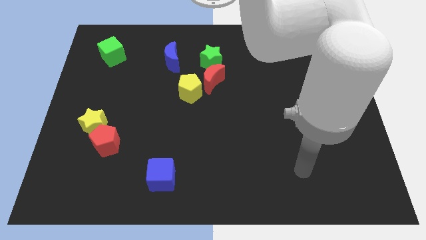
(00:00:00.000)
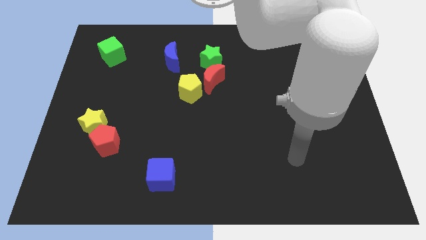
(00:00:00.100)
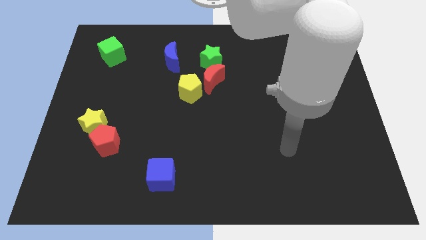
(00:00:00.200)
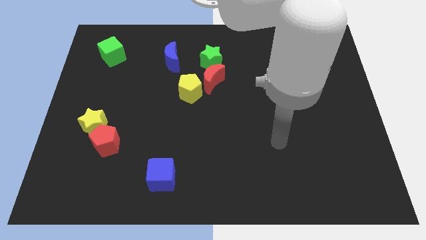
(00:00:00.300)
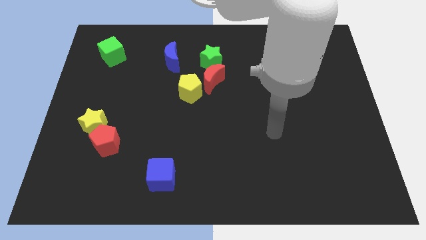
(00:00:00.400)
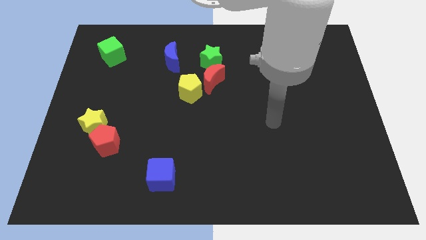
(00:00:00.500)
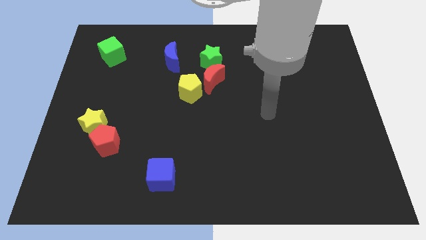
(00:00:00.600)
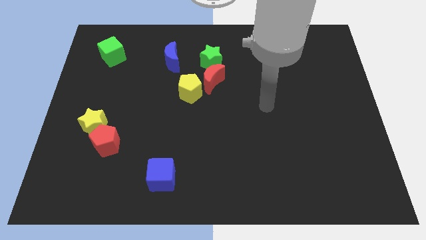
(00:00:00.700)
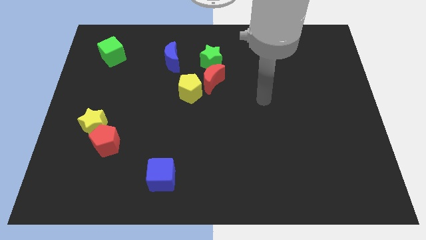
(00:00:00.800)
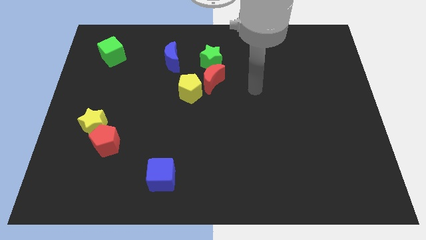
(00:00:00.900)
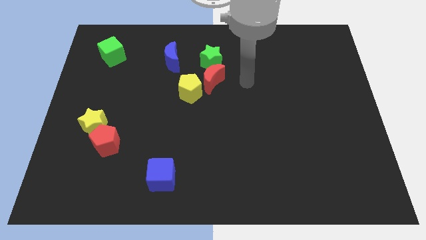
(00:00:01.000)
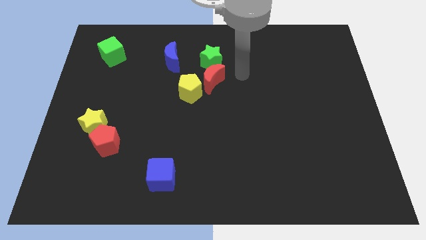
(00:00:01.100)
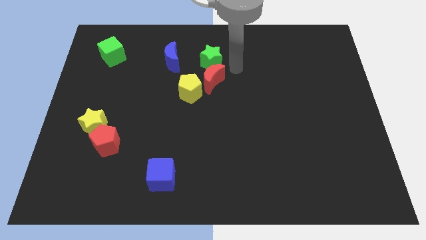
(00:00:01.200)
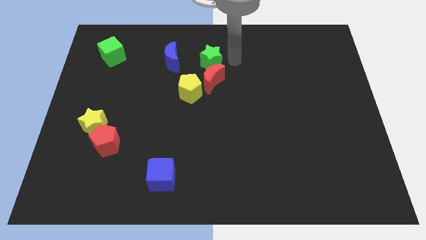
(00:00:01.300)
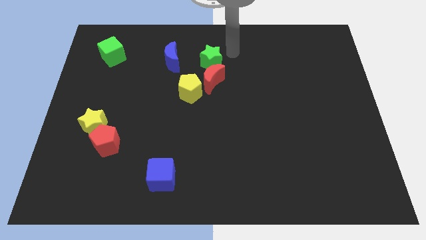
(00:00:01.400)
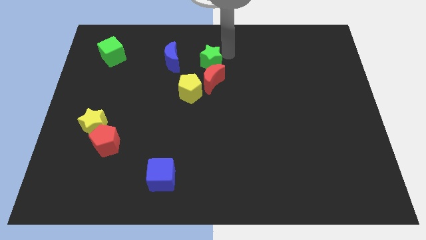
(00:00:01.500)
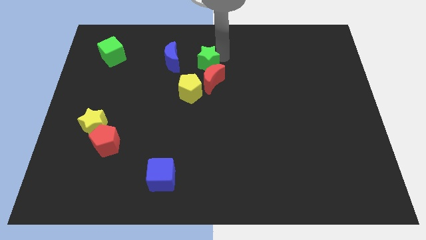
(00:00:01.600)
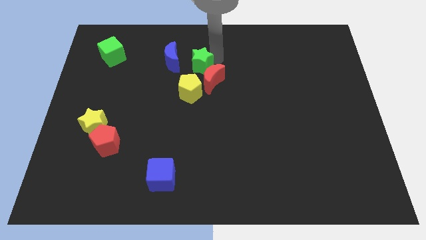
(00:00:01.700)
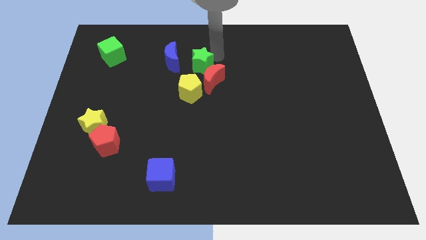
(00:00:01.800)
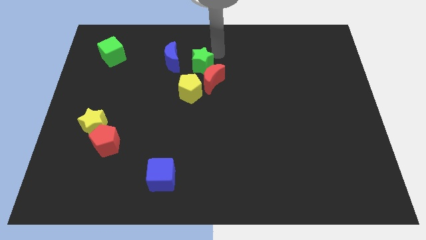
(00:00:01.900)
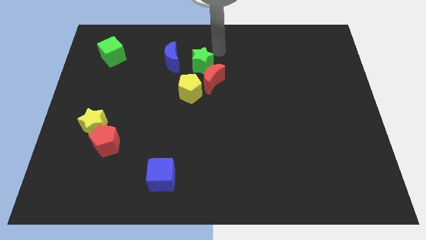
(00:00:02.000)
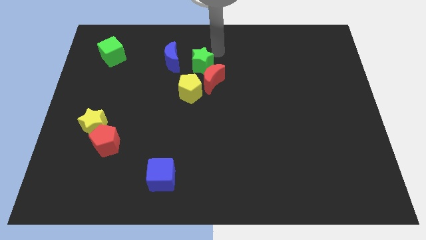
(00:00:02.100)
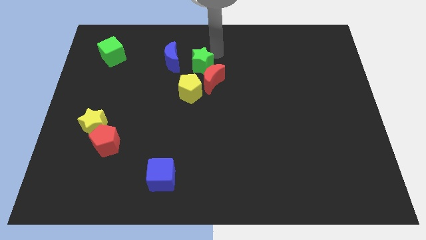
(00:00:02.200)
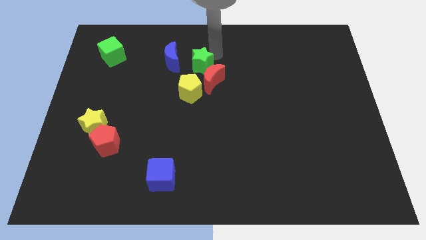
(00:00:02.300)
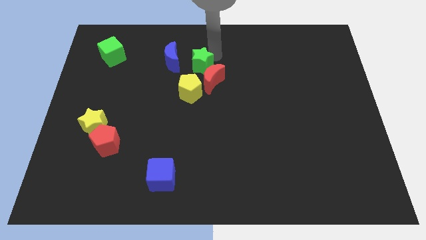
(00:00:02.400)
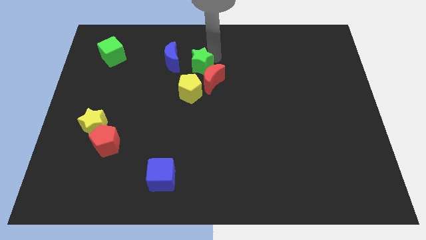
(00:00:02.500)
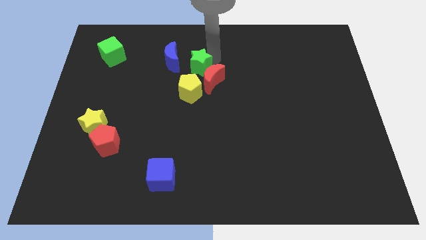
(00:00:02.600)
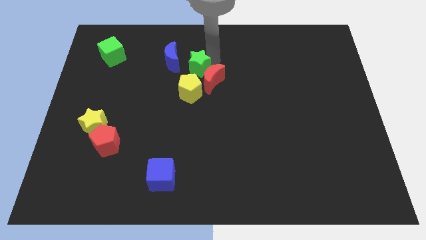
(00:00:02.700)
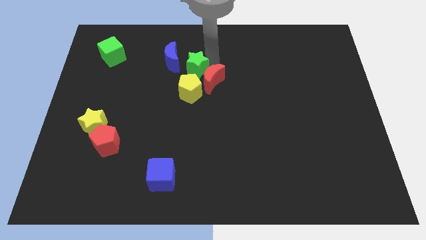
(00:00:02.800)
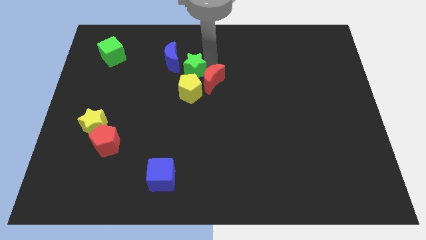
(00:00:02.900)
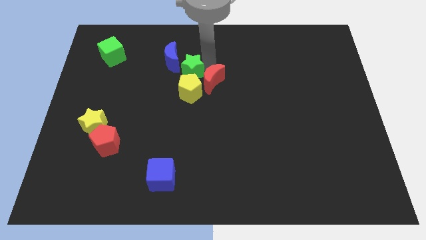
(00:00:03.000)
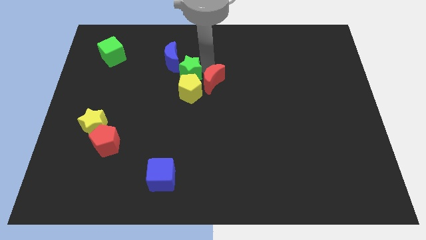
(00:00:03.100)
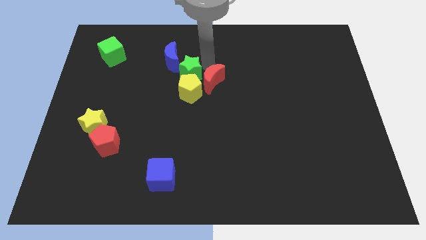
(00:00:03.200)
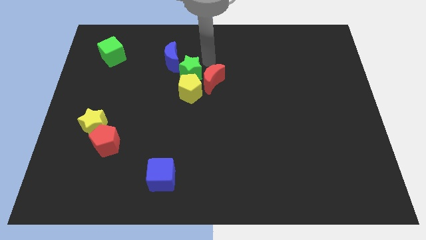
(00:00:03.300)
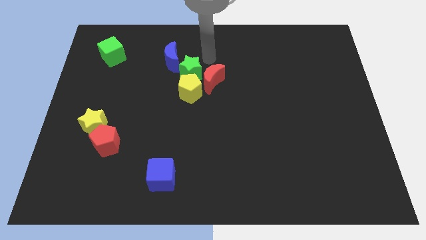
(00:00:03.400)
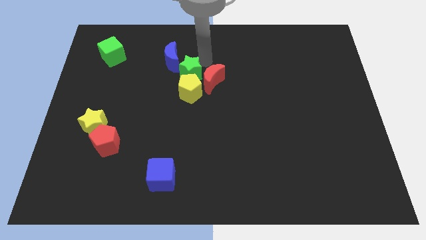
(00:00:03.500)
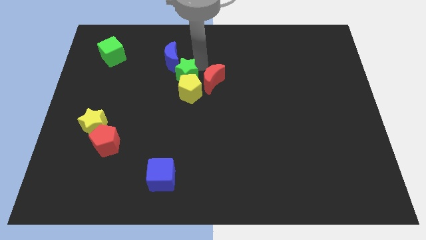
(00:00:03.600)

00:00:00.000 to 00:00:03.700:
slightly push the green star diagonally down and left

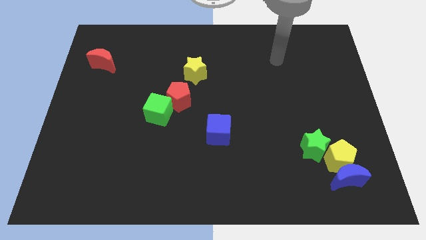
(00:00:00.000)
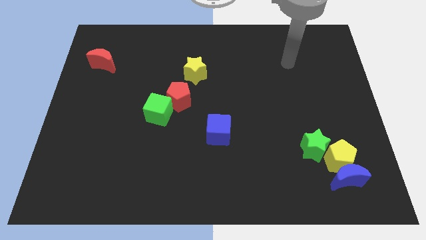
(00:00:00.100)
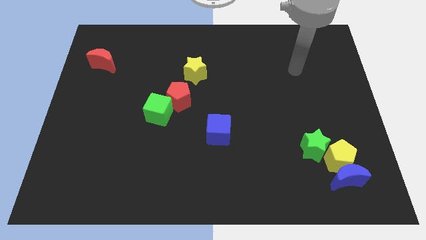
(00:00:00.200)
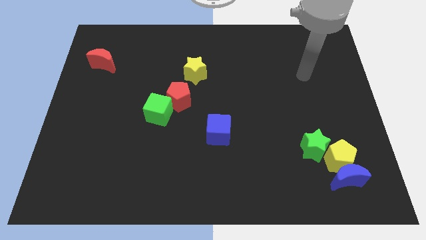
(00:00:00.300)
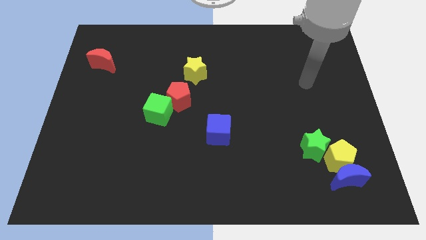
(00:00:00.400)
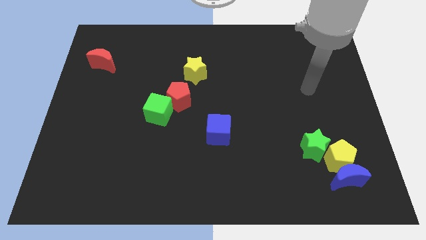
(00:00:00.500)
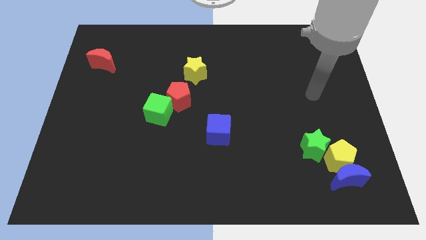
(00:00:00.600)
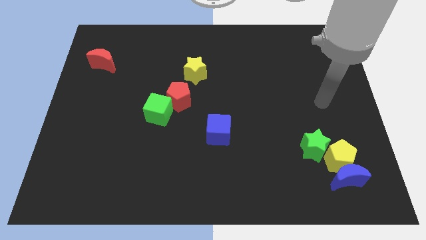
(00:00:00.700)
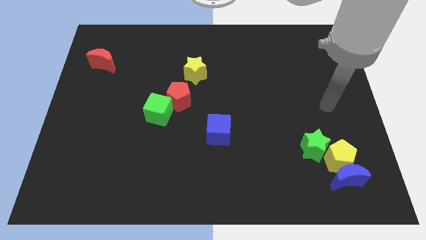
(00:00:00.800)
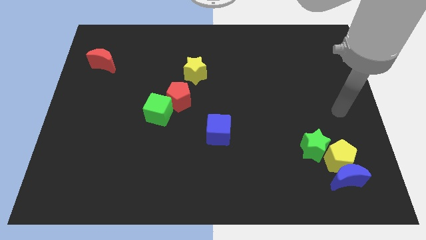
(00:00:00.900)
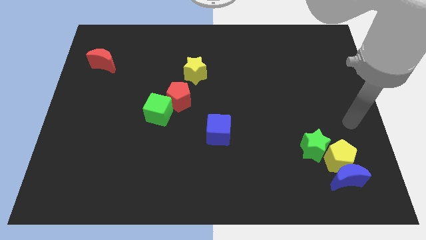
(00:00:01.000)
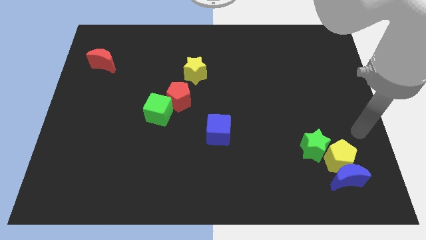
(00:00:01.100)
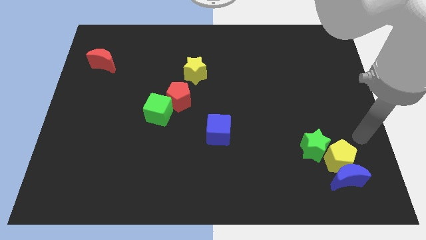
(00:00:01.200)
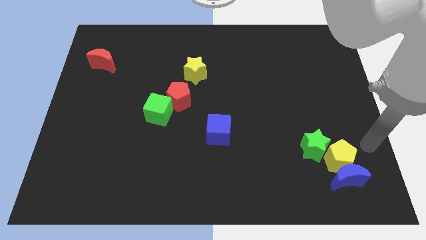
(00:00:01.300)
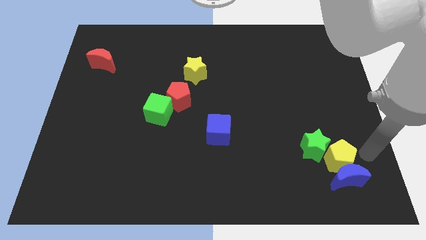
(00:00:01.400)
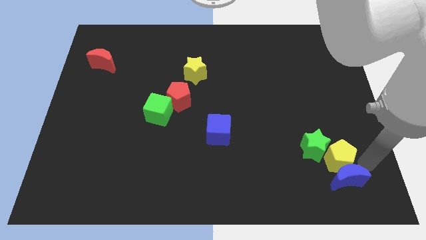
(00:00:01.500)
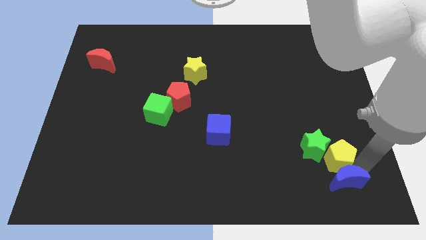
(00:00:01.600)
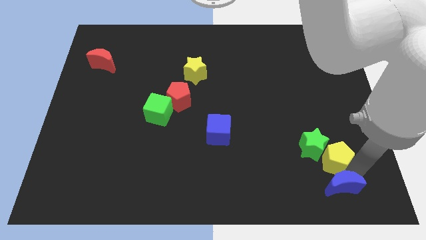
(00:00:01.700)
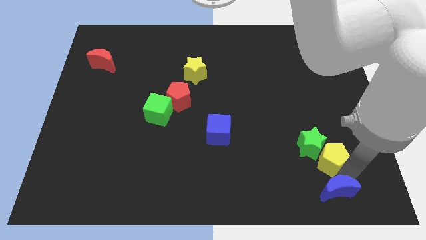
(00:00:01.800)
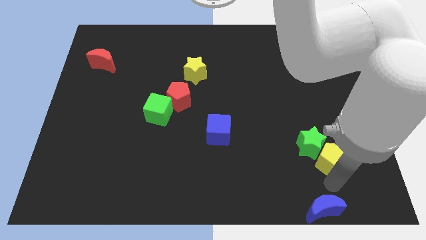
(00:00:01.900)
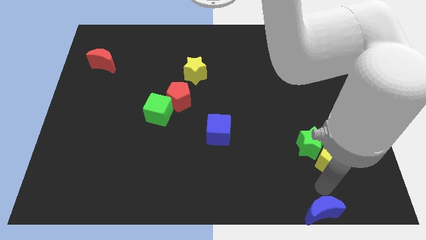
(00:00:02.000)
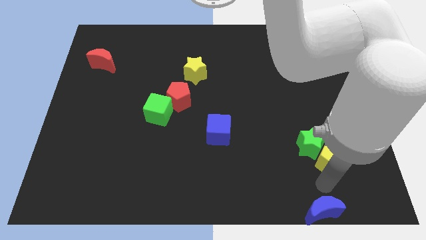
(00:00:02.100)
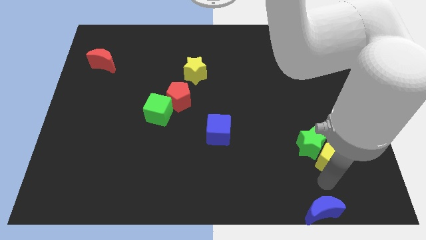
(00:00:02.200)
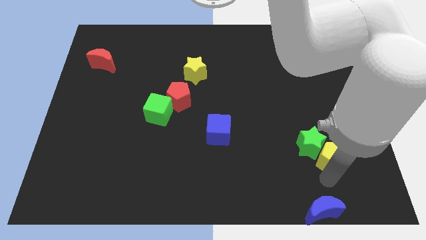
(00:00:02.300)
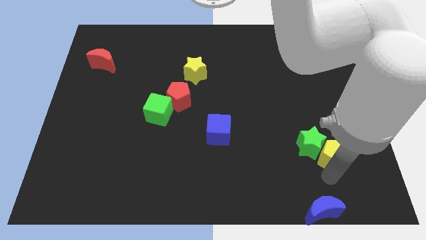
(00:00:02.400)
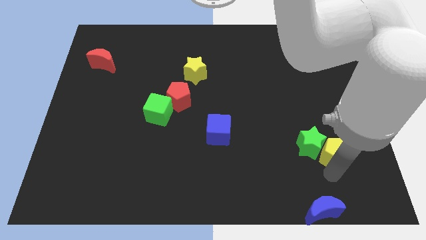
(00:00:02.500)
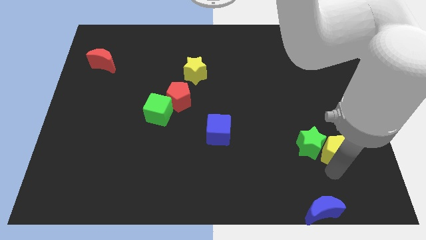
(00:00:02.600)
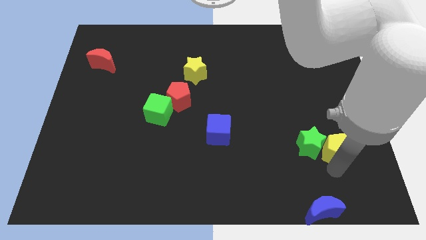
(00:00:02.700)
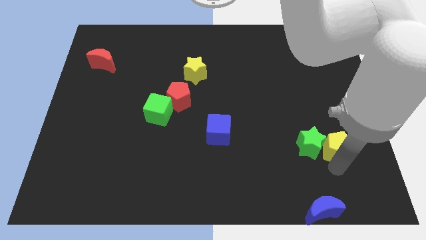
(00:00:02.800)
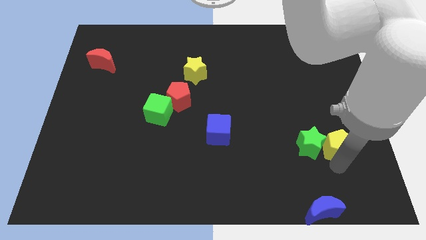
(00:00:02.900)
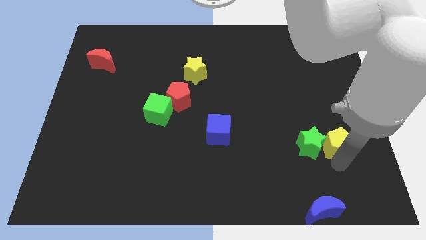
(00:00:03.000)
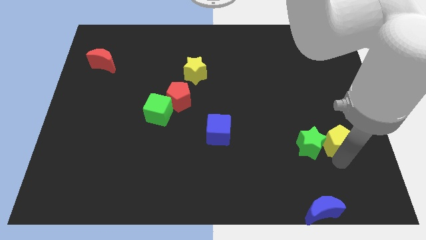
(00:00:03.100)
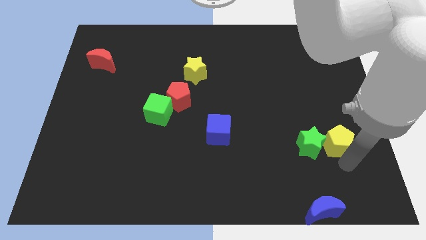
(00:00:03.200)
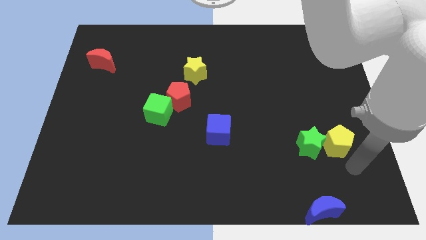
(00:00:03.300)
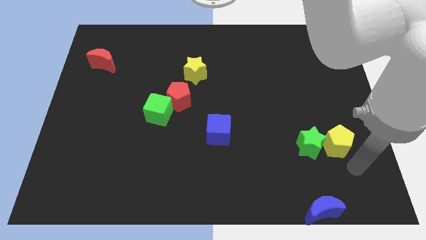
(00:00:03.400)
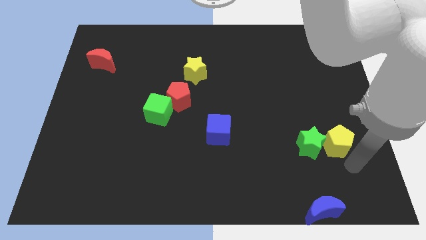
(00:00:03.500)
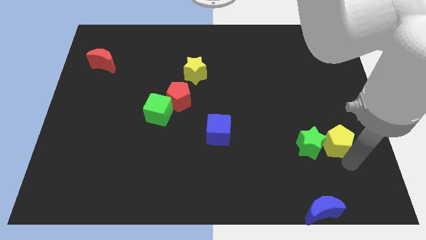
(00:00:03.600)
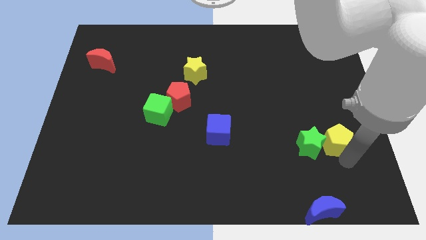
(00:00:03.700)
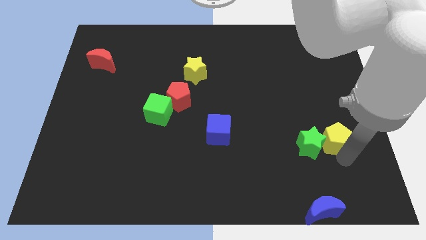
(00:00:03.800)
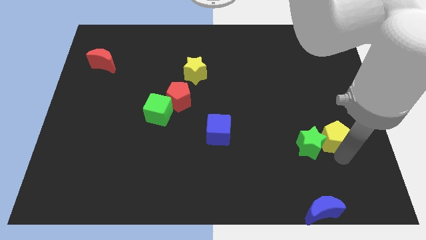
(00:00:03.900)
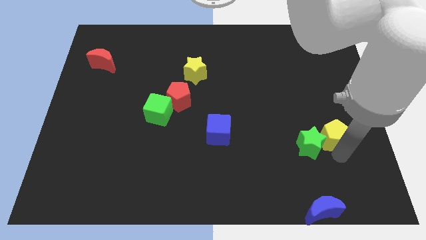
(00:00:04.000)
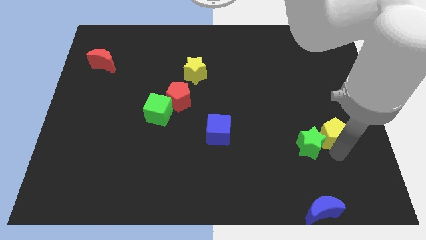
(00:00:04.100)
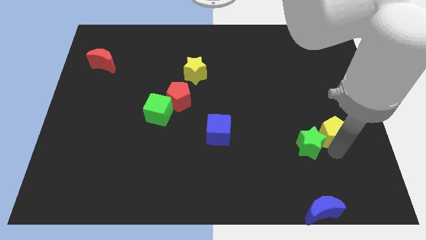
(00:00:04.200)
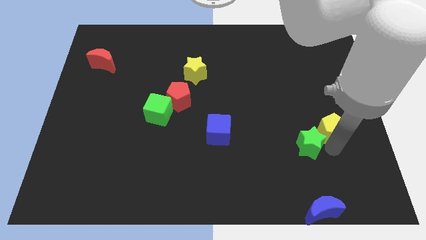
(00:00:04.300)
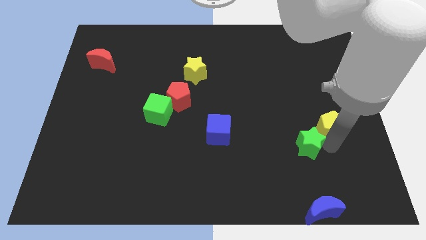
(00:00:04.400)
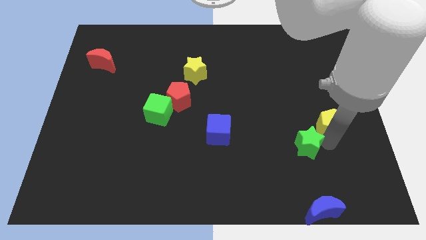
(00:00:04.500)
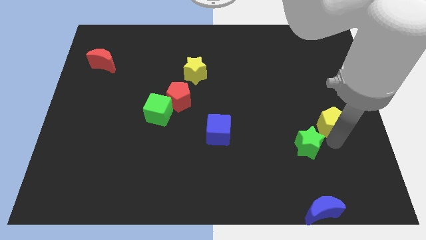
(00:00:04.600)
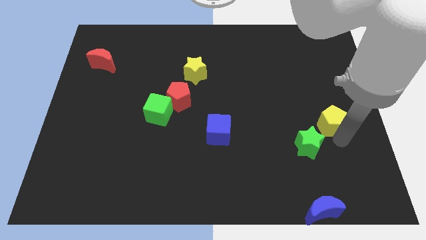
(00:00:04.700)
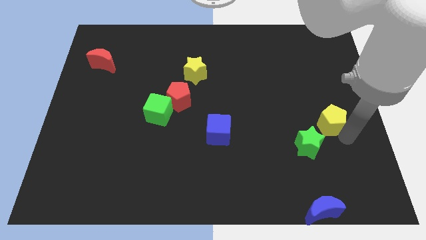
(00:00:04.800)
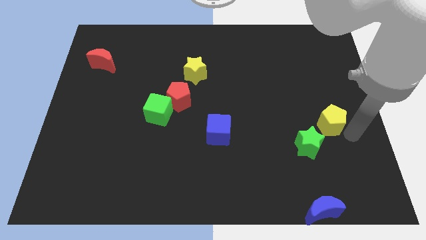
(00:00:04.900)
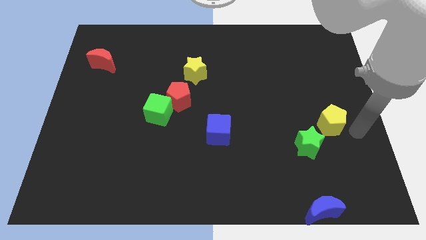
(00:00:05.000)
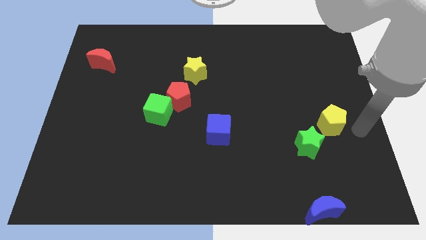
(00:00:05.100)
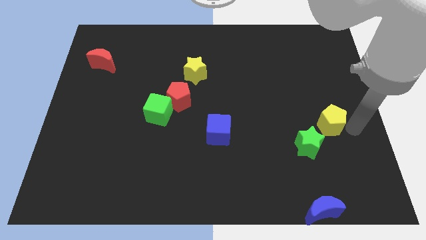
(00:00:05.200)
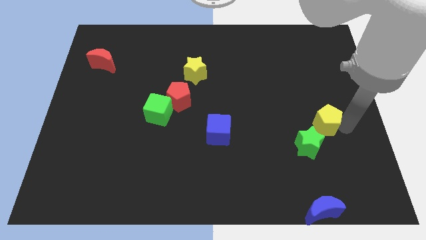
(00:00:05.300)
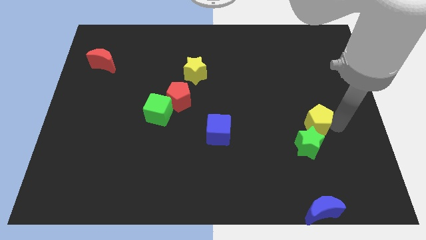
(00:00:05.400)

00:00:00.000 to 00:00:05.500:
slightly move the yellow pentagon diagonally up and to the left
